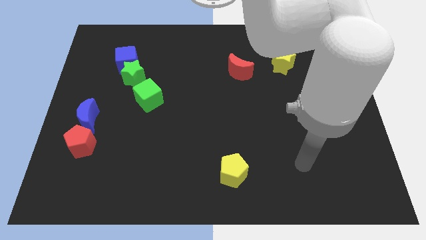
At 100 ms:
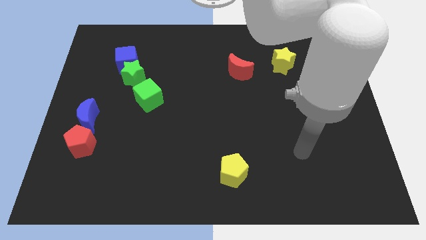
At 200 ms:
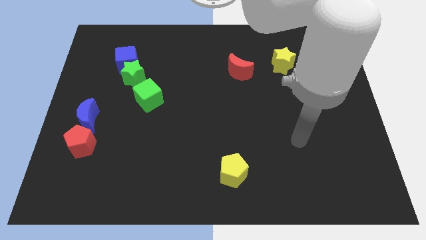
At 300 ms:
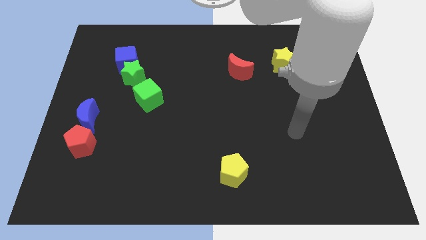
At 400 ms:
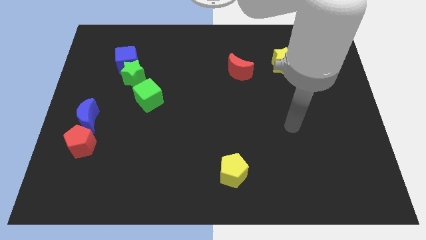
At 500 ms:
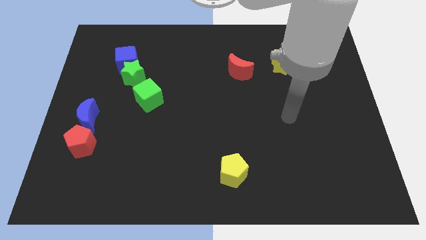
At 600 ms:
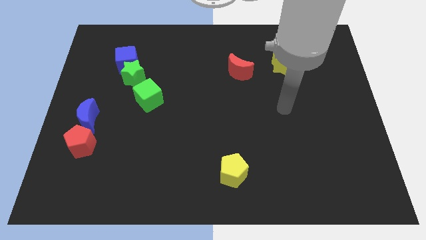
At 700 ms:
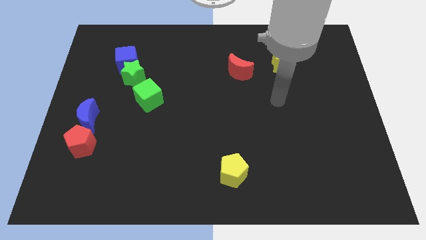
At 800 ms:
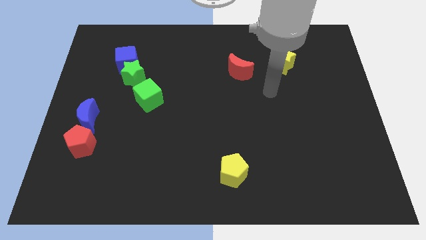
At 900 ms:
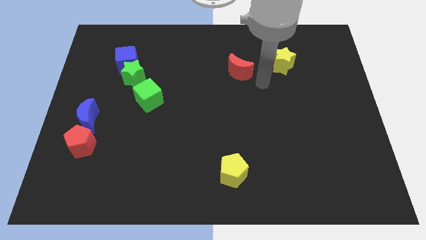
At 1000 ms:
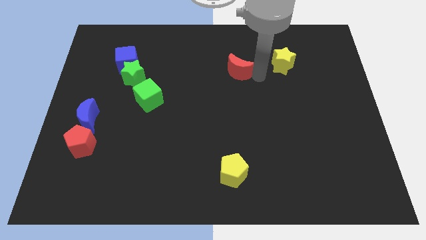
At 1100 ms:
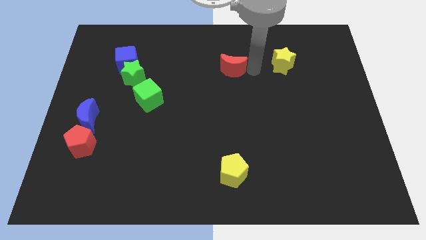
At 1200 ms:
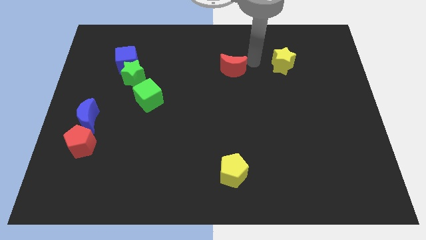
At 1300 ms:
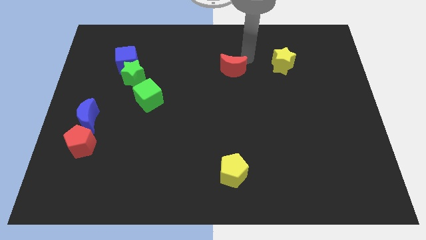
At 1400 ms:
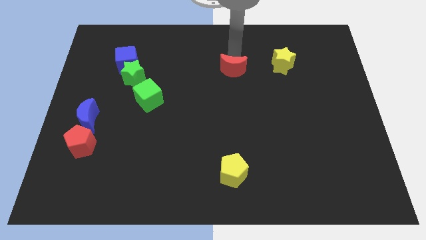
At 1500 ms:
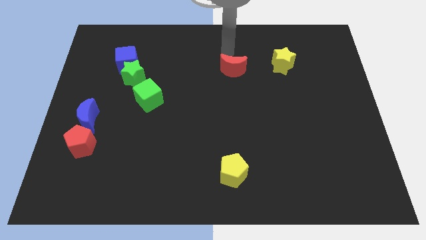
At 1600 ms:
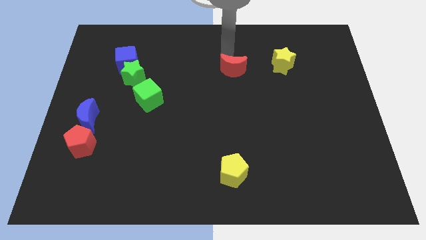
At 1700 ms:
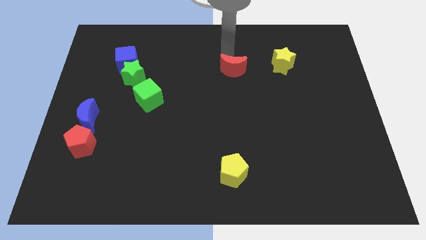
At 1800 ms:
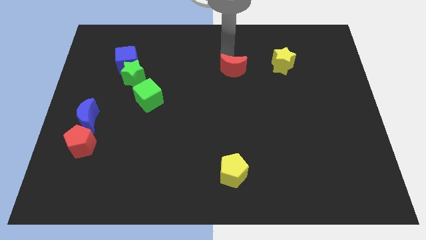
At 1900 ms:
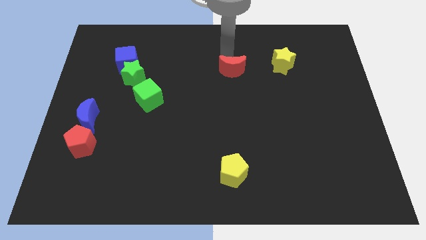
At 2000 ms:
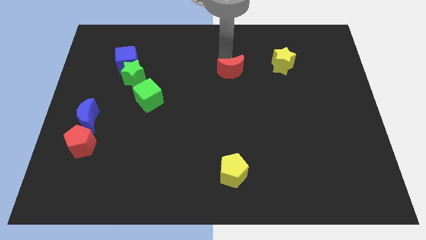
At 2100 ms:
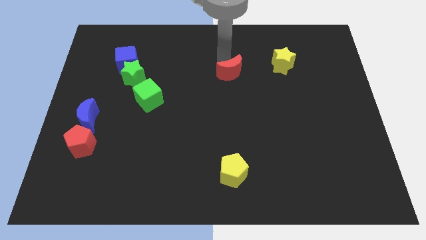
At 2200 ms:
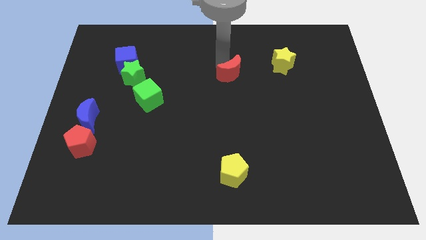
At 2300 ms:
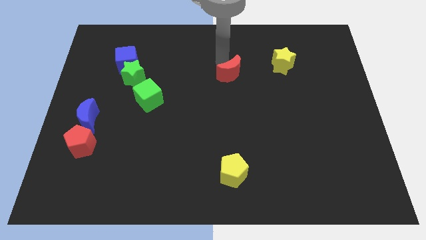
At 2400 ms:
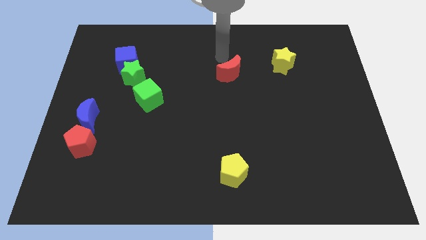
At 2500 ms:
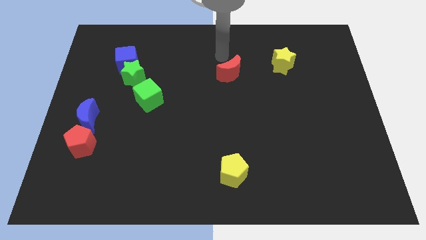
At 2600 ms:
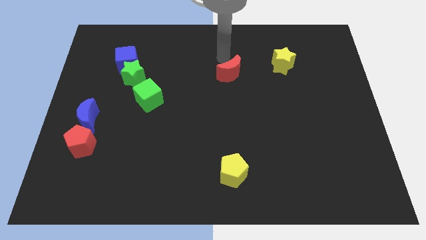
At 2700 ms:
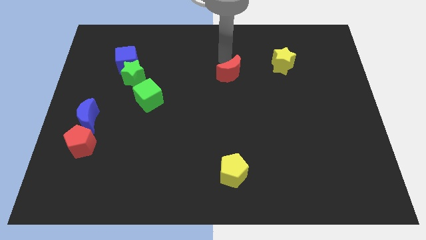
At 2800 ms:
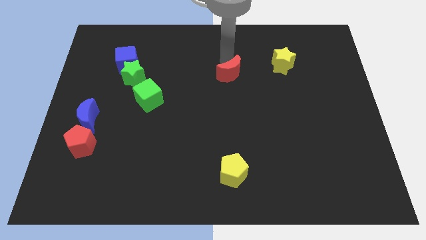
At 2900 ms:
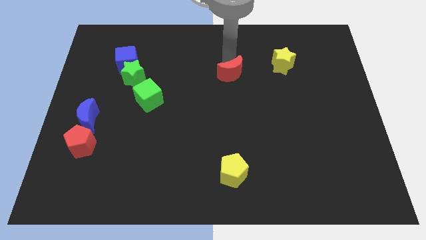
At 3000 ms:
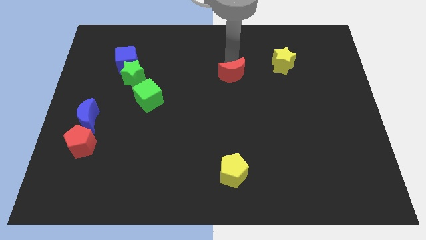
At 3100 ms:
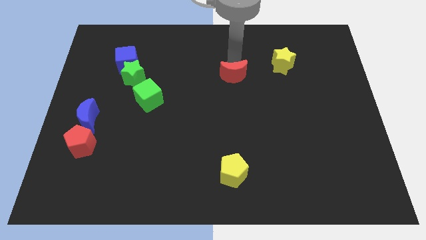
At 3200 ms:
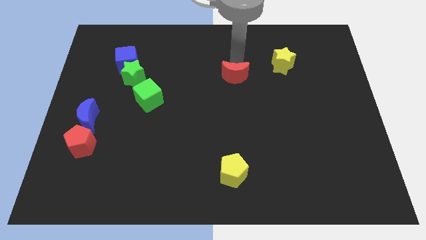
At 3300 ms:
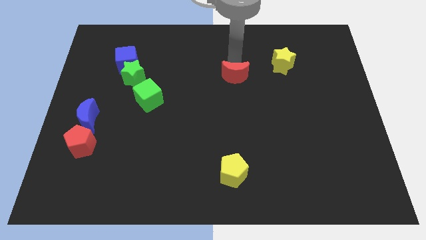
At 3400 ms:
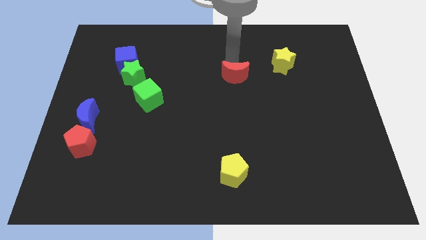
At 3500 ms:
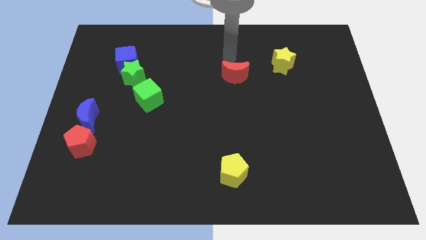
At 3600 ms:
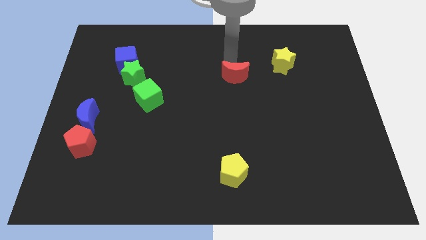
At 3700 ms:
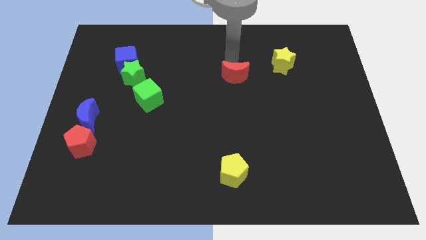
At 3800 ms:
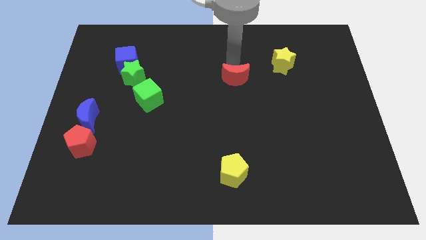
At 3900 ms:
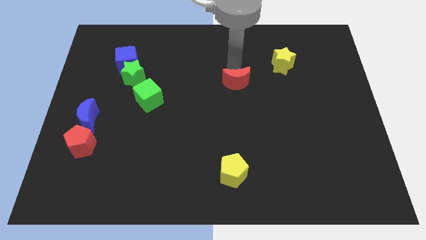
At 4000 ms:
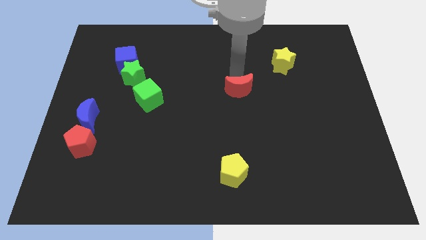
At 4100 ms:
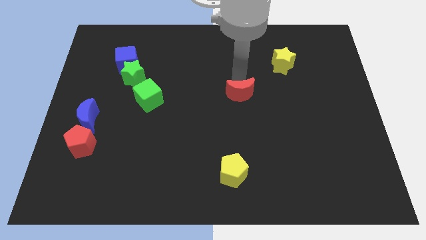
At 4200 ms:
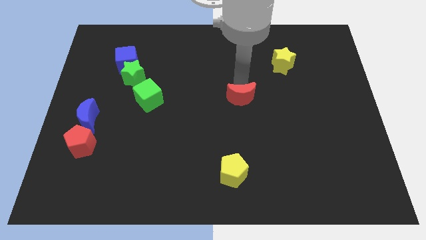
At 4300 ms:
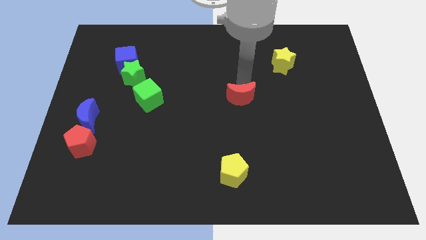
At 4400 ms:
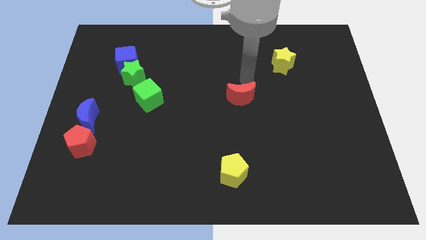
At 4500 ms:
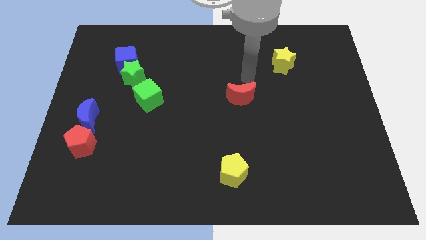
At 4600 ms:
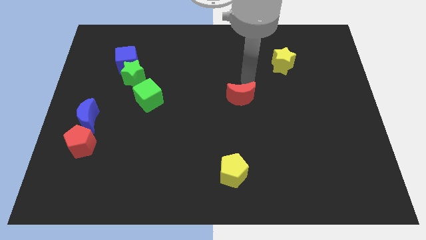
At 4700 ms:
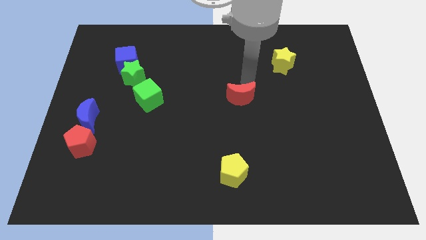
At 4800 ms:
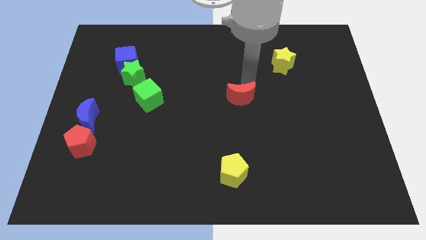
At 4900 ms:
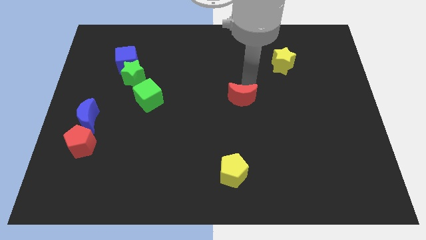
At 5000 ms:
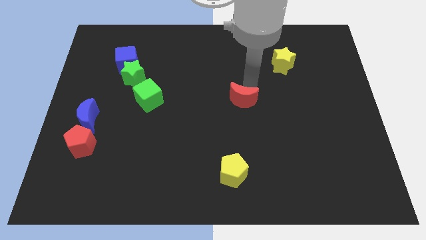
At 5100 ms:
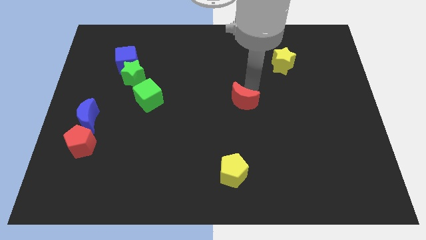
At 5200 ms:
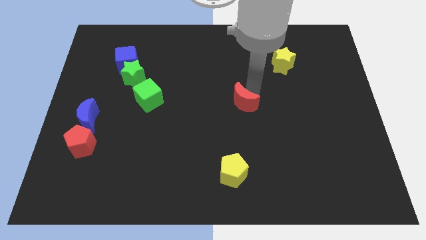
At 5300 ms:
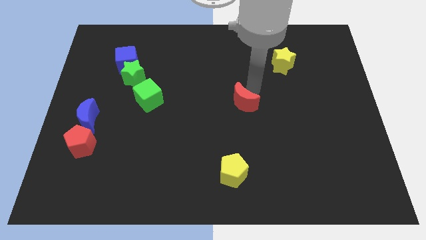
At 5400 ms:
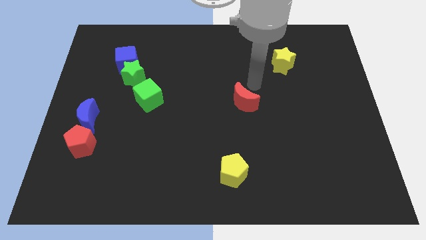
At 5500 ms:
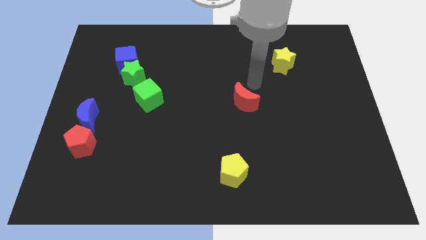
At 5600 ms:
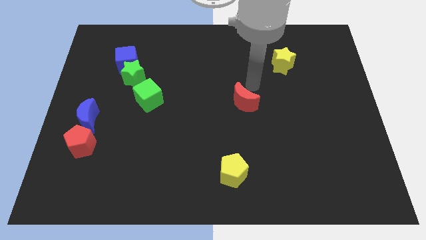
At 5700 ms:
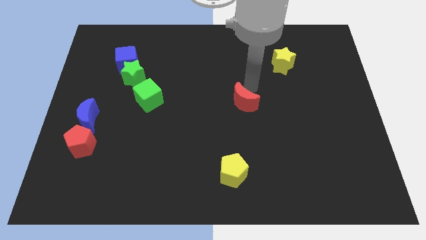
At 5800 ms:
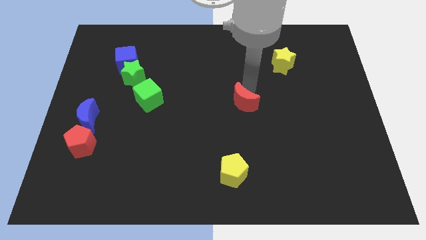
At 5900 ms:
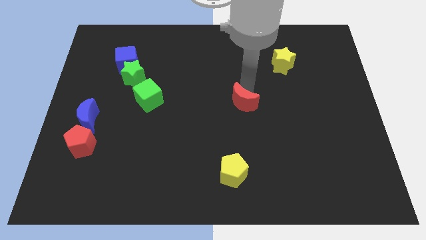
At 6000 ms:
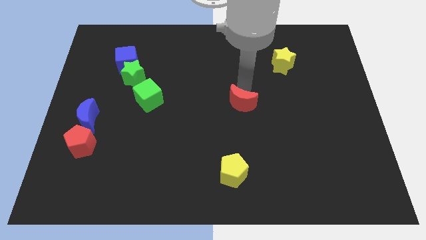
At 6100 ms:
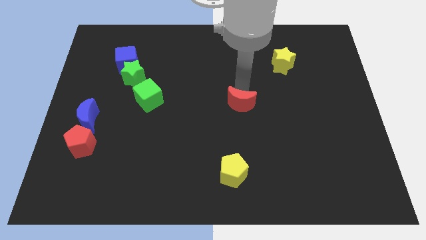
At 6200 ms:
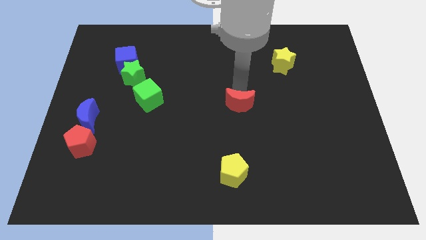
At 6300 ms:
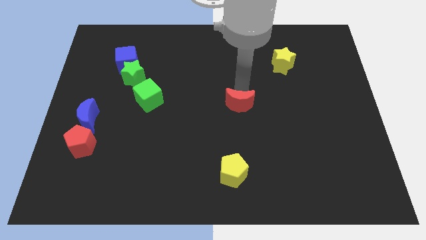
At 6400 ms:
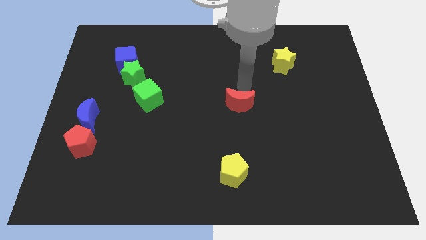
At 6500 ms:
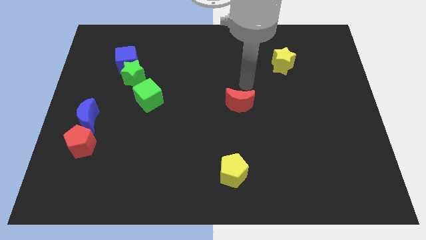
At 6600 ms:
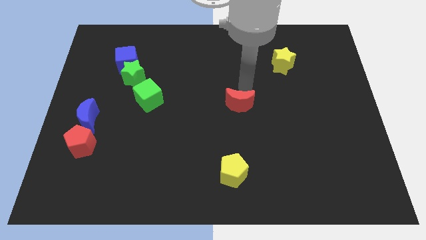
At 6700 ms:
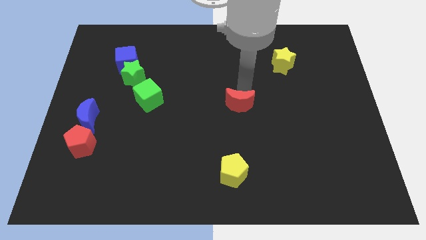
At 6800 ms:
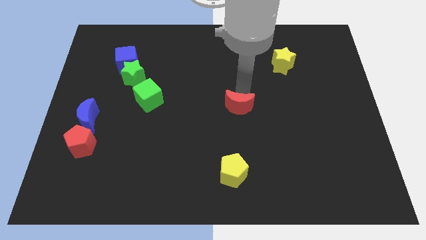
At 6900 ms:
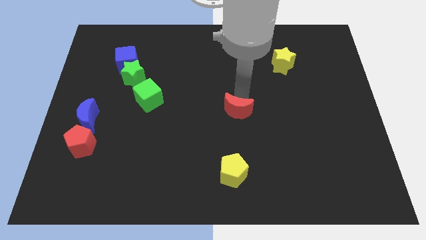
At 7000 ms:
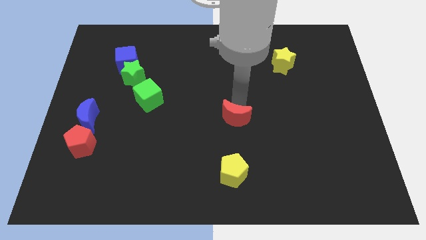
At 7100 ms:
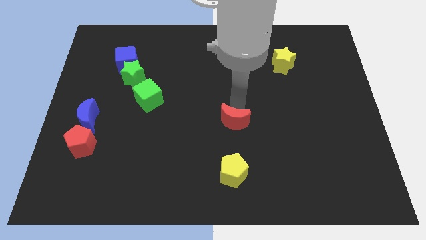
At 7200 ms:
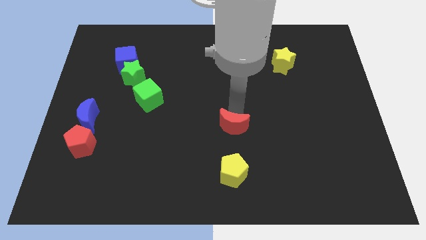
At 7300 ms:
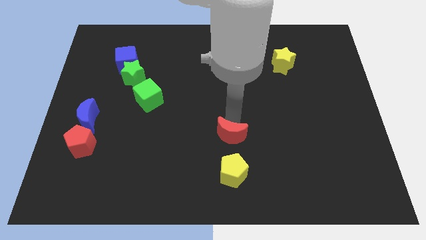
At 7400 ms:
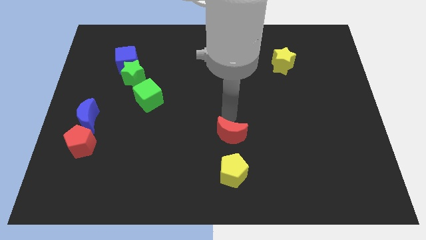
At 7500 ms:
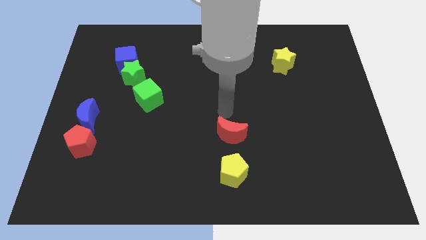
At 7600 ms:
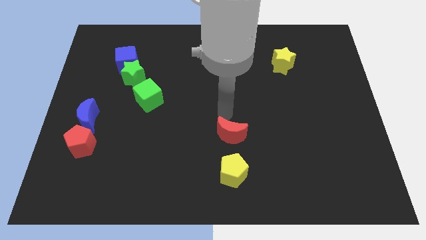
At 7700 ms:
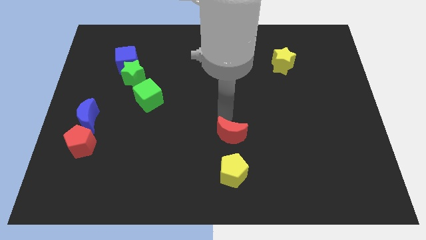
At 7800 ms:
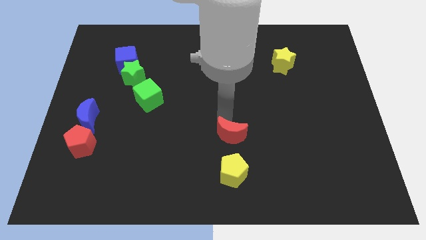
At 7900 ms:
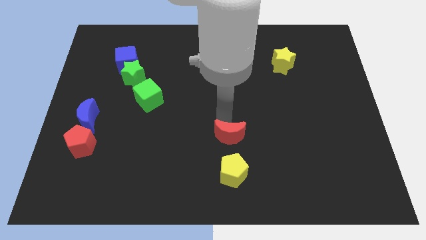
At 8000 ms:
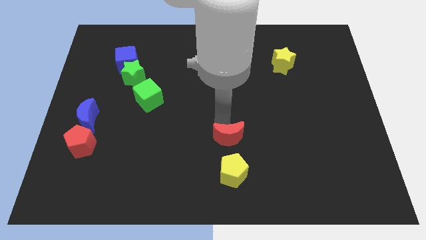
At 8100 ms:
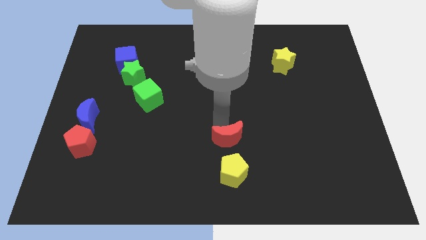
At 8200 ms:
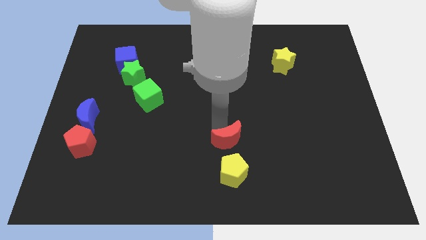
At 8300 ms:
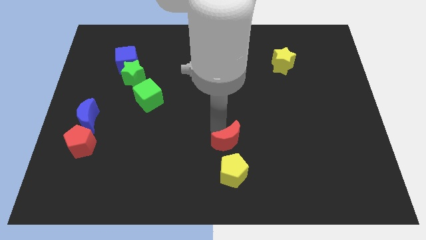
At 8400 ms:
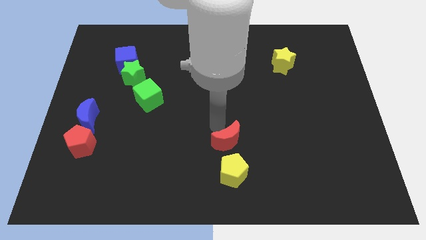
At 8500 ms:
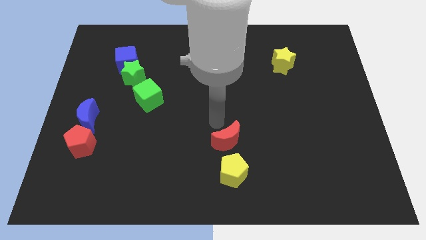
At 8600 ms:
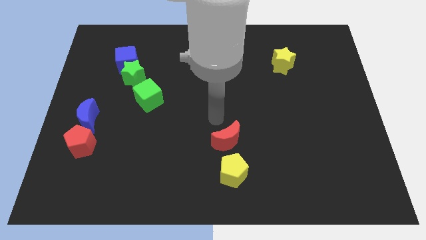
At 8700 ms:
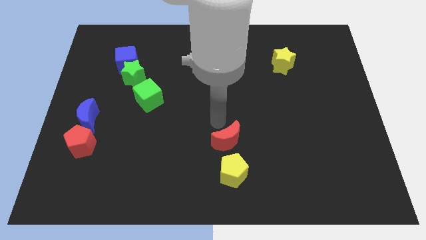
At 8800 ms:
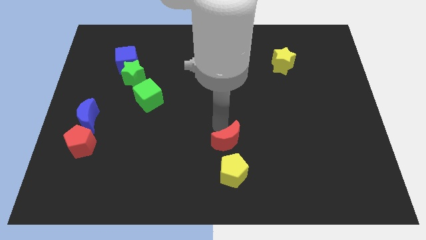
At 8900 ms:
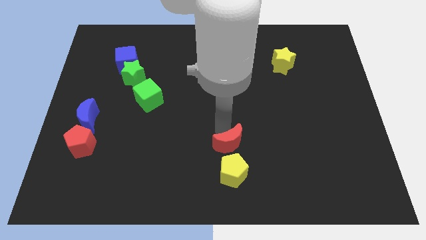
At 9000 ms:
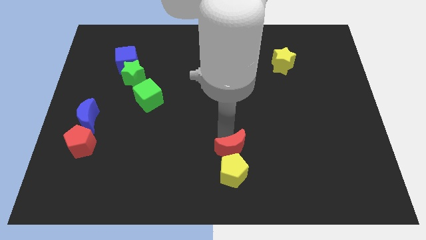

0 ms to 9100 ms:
slide the red moon to the yellow pentagon
